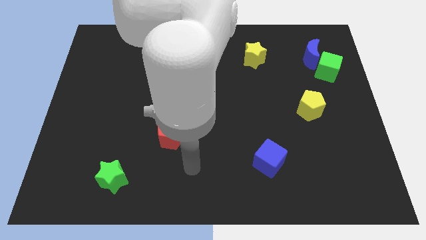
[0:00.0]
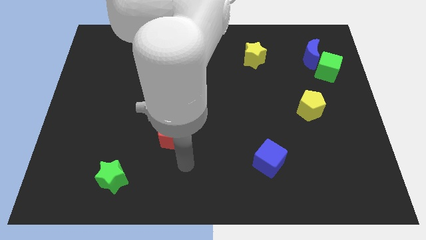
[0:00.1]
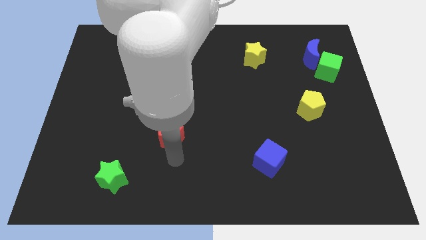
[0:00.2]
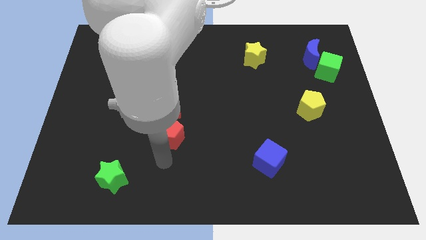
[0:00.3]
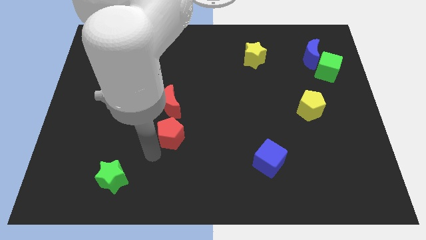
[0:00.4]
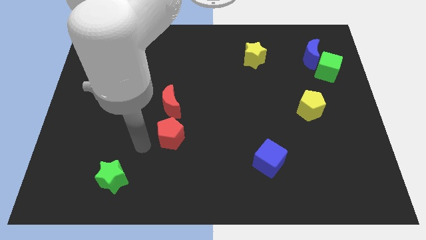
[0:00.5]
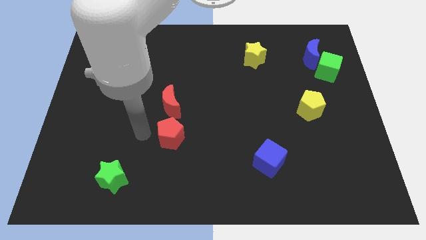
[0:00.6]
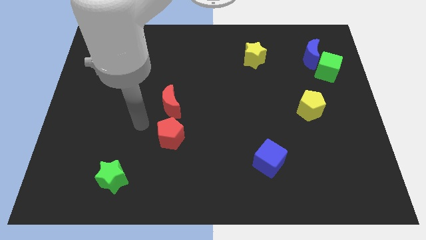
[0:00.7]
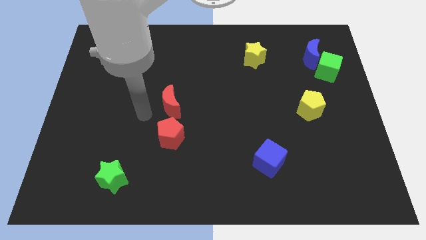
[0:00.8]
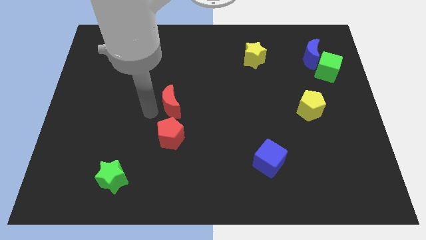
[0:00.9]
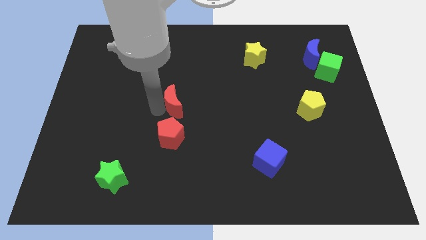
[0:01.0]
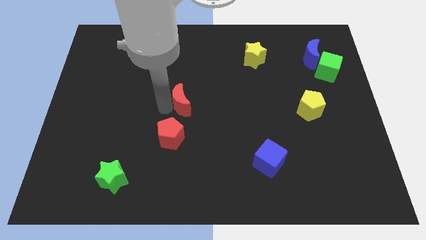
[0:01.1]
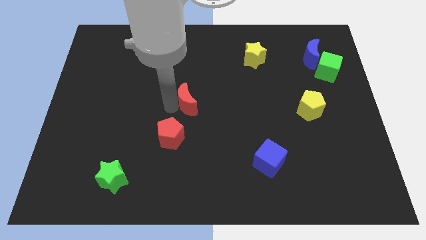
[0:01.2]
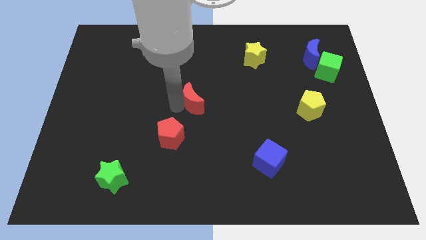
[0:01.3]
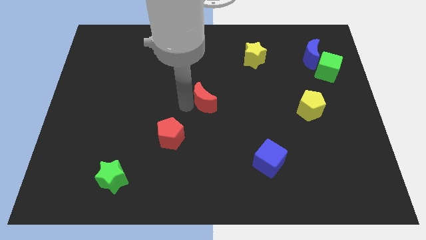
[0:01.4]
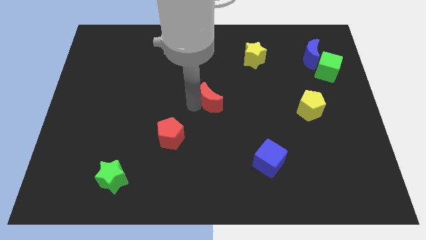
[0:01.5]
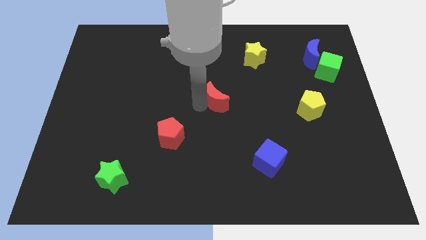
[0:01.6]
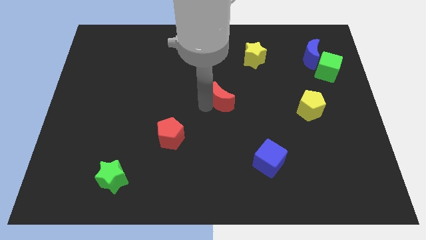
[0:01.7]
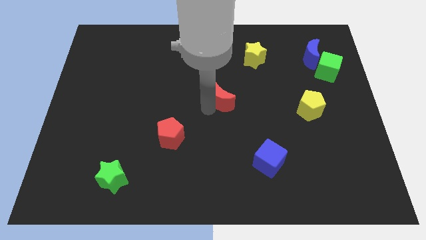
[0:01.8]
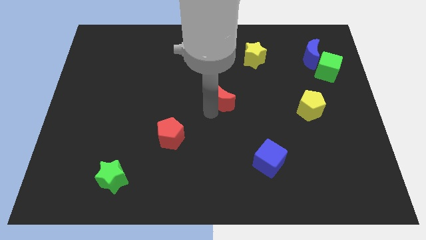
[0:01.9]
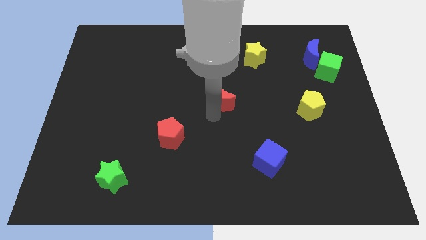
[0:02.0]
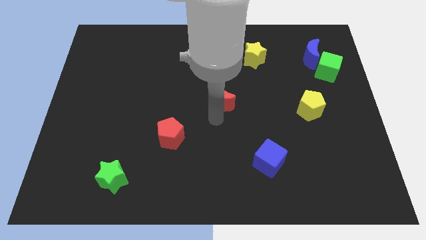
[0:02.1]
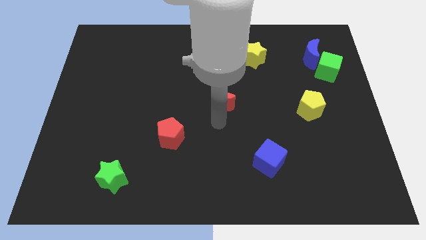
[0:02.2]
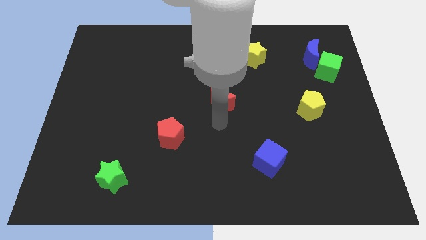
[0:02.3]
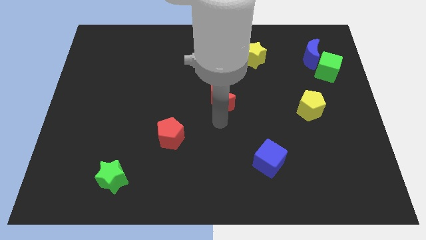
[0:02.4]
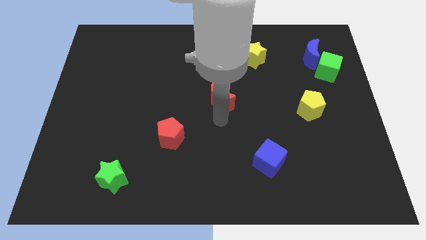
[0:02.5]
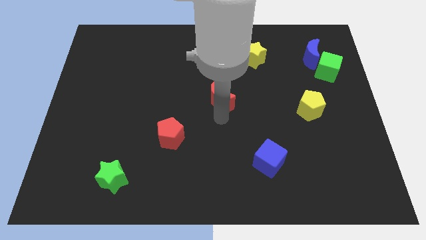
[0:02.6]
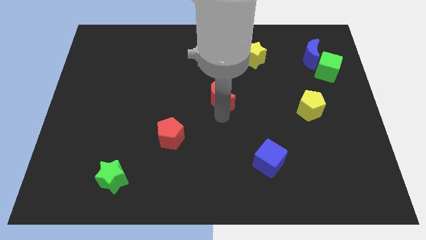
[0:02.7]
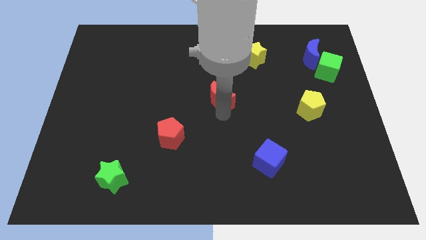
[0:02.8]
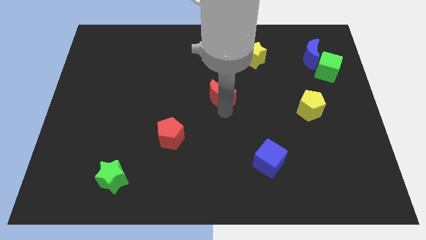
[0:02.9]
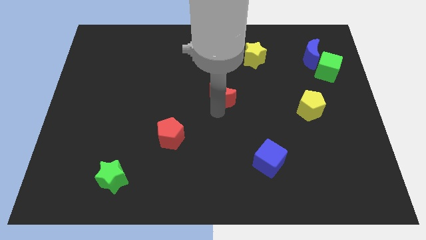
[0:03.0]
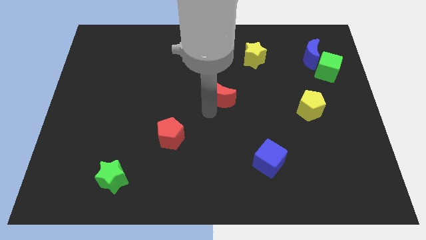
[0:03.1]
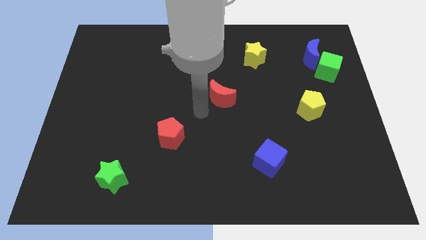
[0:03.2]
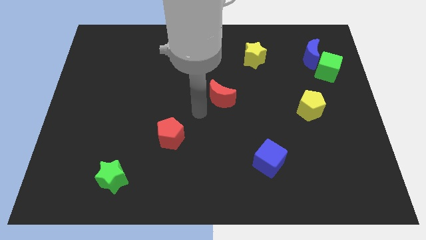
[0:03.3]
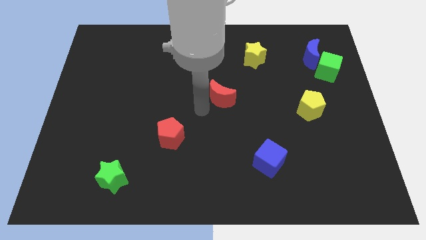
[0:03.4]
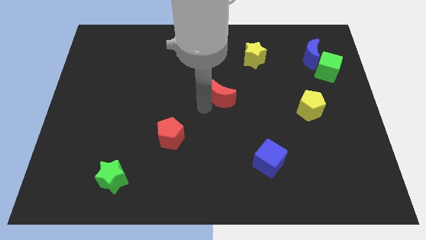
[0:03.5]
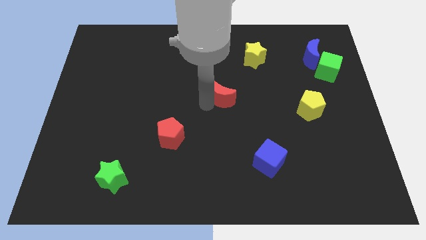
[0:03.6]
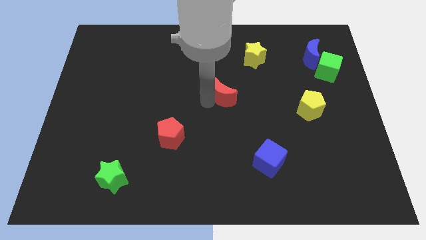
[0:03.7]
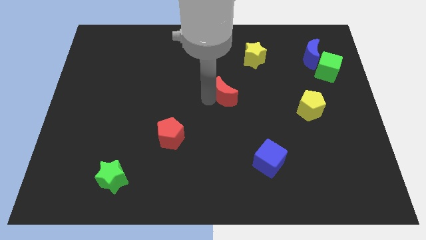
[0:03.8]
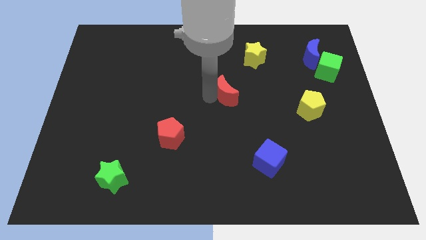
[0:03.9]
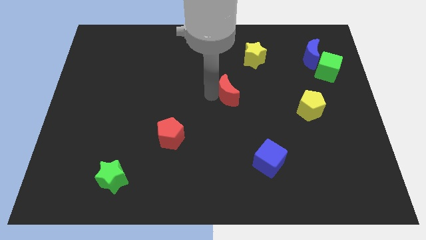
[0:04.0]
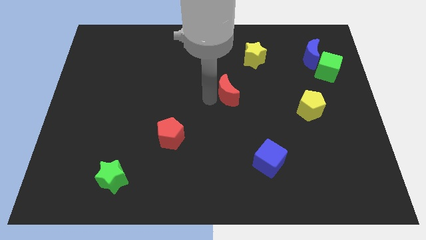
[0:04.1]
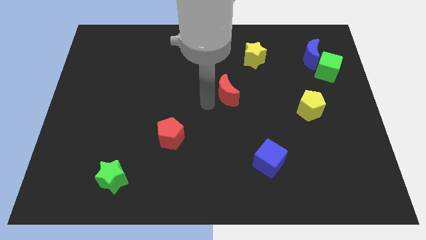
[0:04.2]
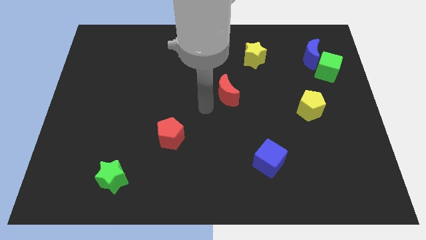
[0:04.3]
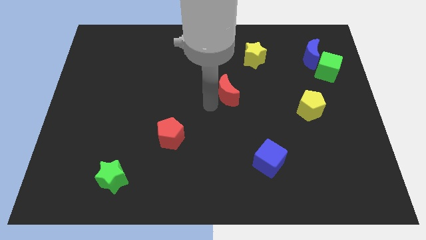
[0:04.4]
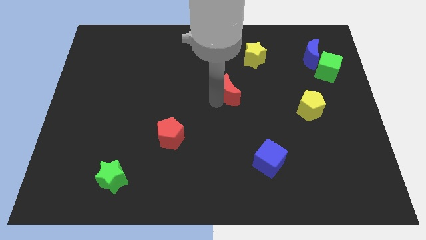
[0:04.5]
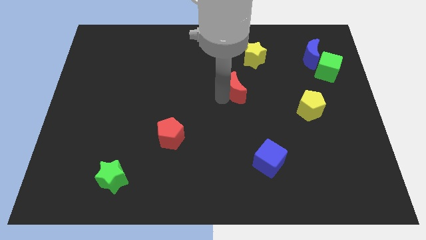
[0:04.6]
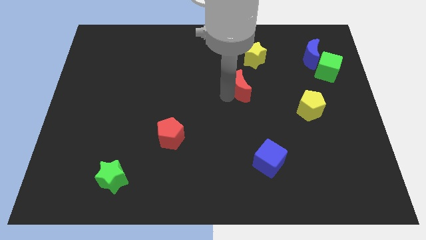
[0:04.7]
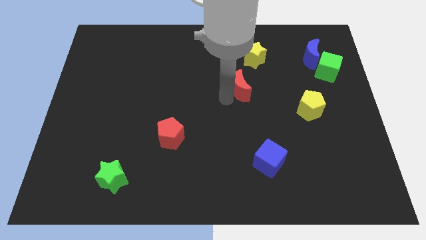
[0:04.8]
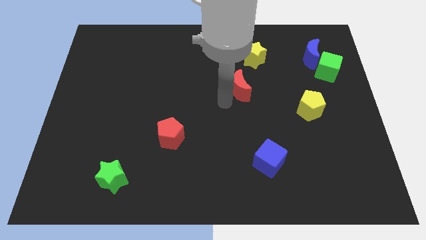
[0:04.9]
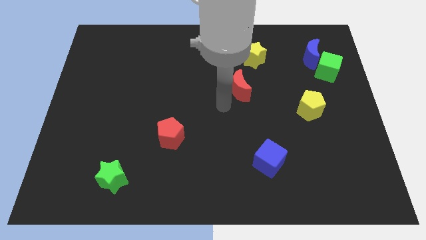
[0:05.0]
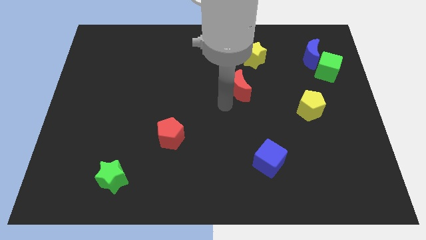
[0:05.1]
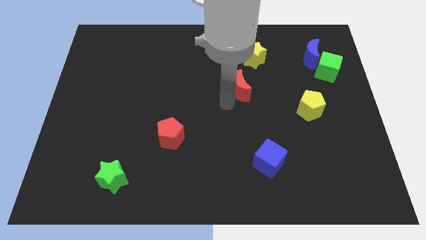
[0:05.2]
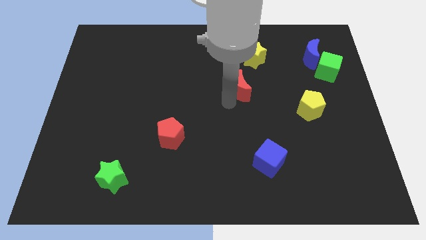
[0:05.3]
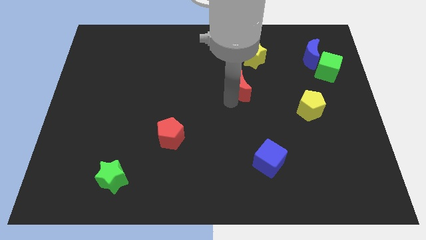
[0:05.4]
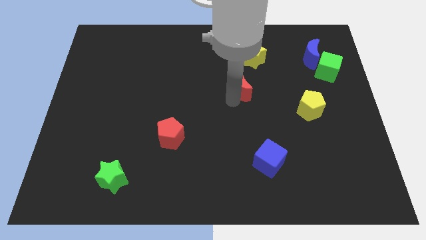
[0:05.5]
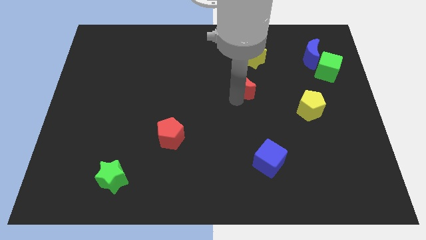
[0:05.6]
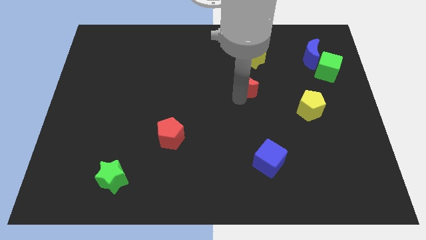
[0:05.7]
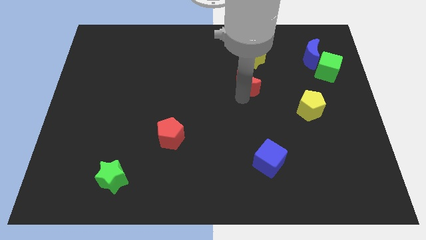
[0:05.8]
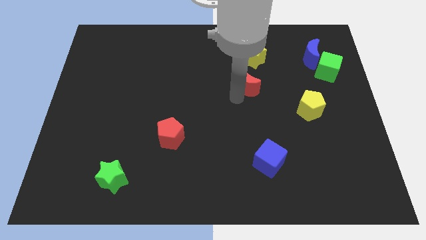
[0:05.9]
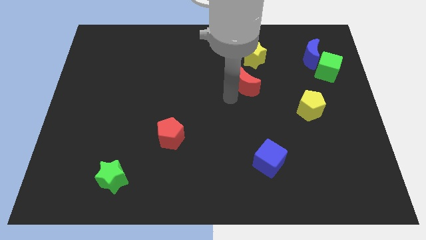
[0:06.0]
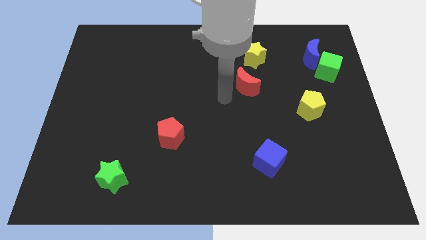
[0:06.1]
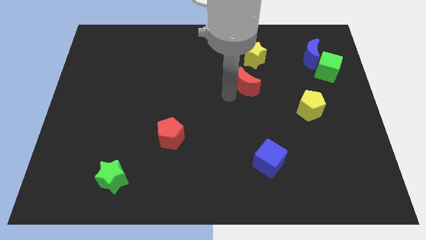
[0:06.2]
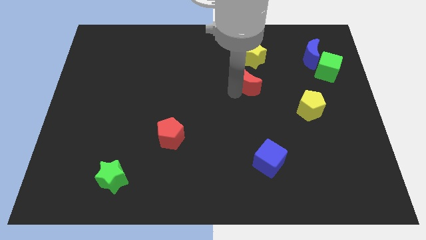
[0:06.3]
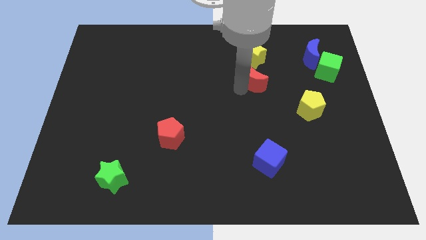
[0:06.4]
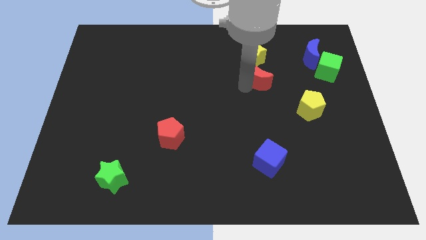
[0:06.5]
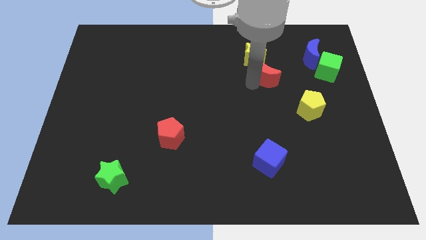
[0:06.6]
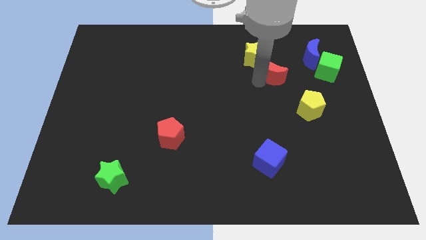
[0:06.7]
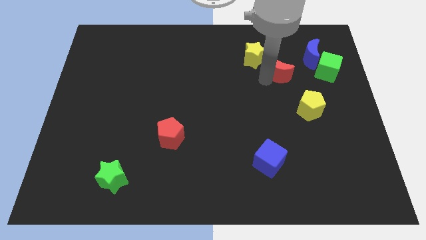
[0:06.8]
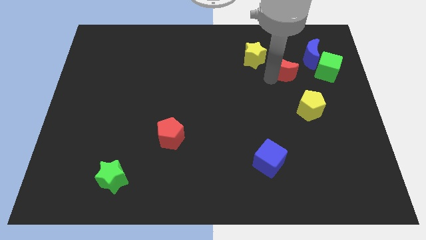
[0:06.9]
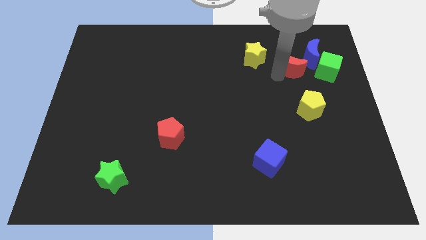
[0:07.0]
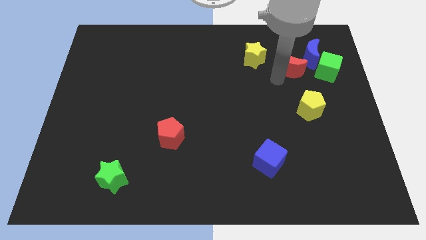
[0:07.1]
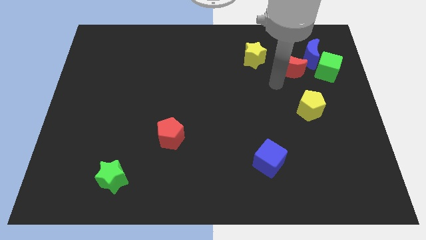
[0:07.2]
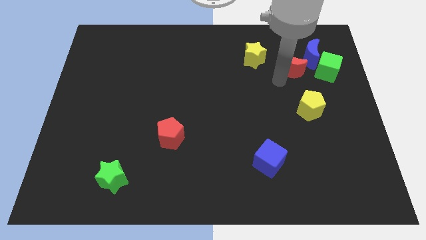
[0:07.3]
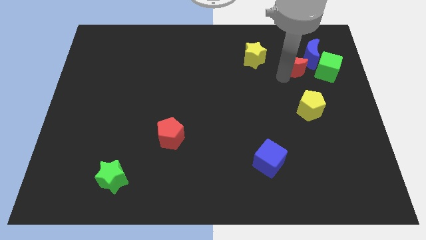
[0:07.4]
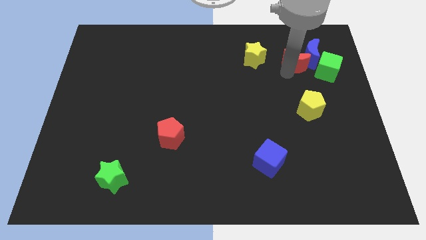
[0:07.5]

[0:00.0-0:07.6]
move the red moon to the top left of the green cube
